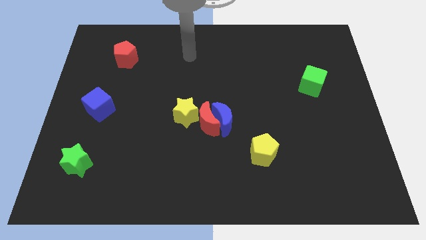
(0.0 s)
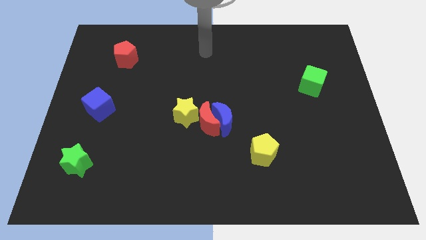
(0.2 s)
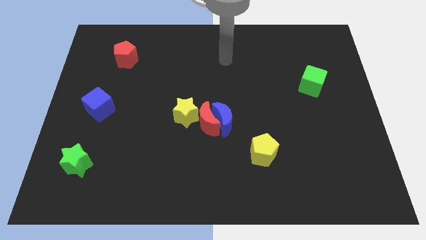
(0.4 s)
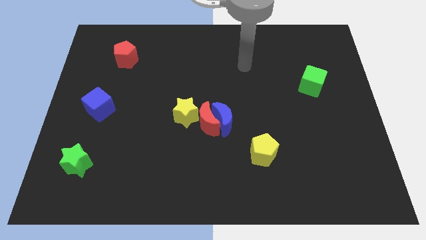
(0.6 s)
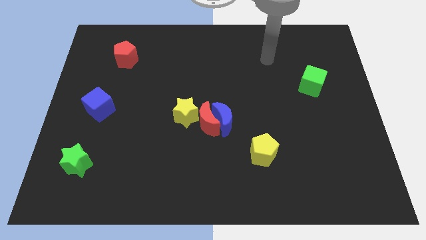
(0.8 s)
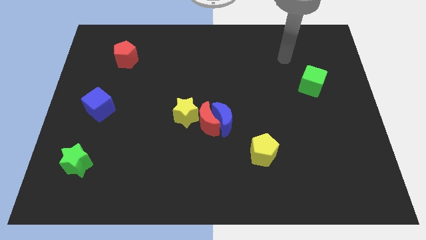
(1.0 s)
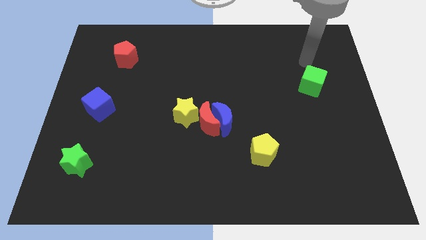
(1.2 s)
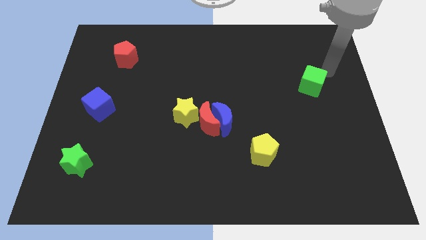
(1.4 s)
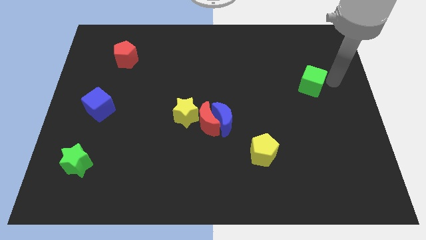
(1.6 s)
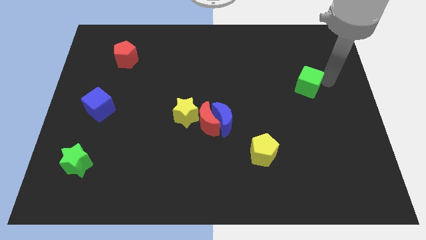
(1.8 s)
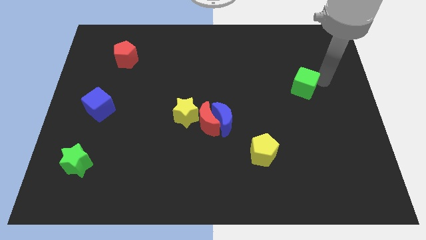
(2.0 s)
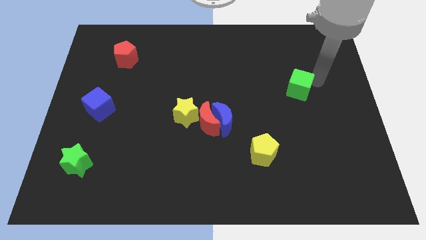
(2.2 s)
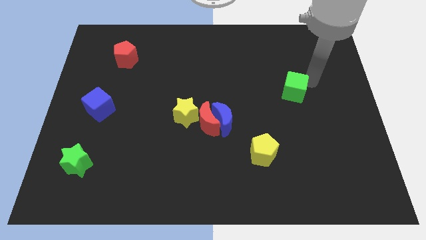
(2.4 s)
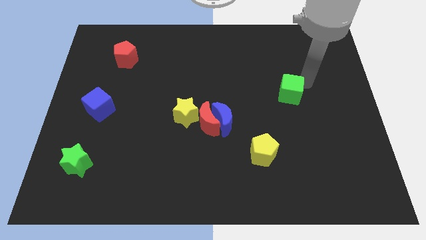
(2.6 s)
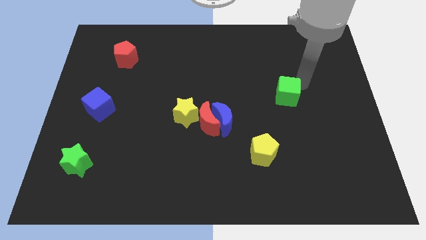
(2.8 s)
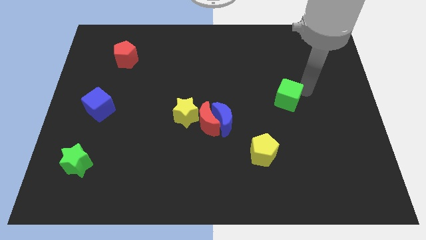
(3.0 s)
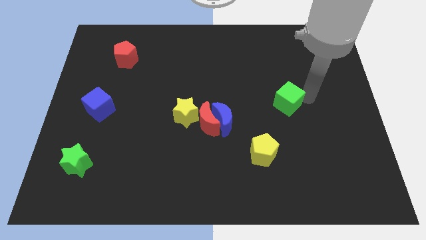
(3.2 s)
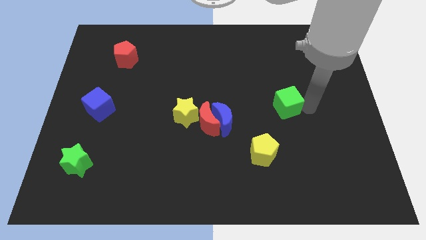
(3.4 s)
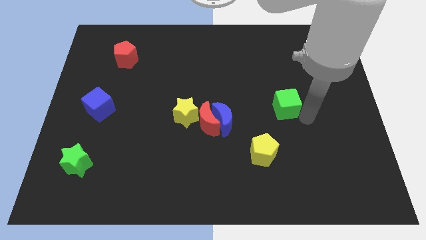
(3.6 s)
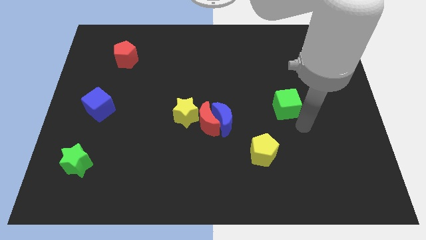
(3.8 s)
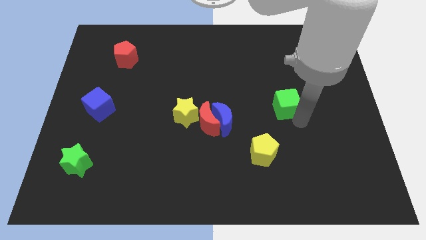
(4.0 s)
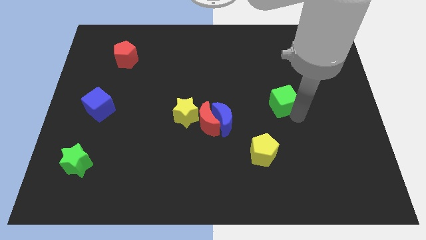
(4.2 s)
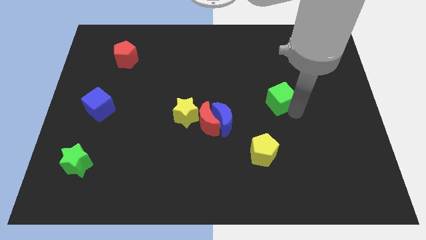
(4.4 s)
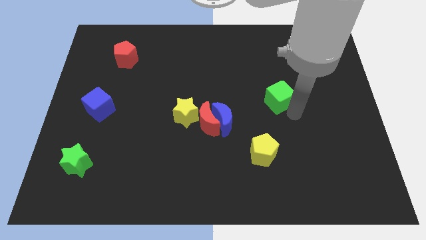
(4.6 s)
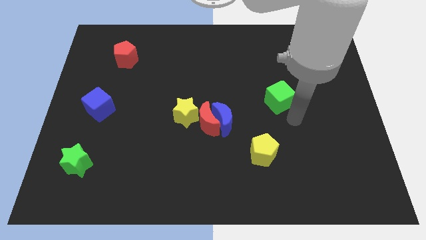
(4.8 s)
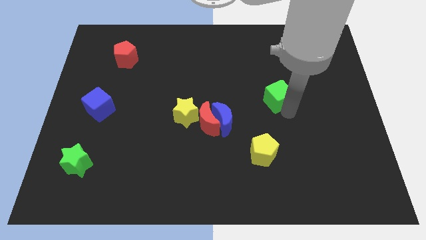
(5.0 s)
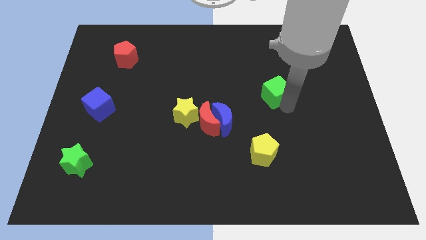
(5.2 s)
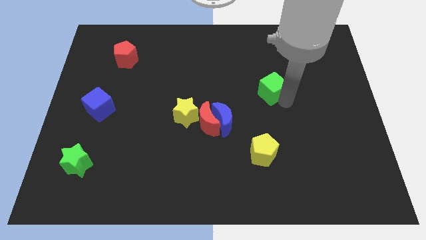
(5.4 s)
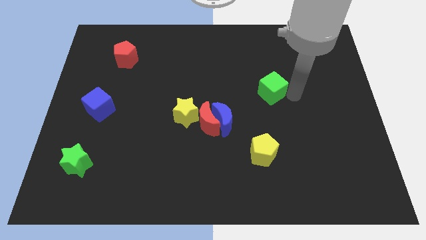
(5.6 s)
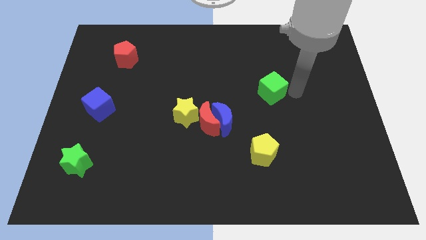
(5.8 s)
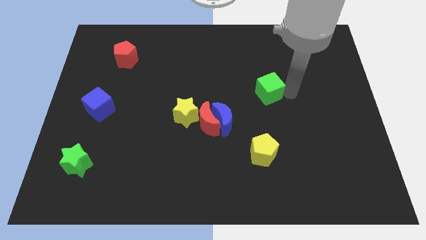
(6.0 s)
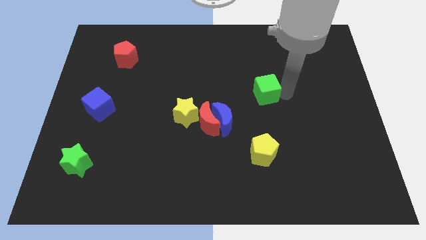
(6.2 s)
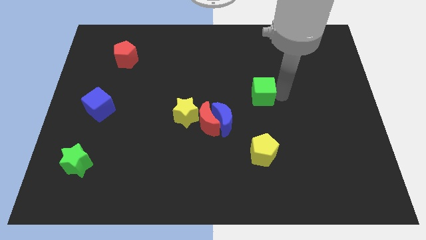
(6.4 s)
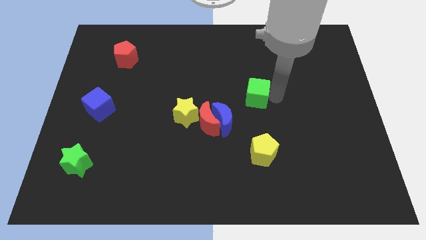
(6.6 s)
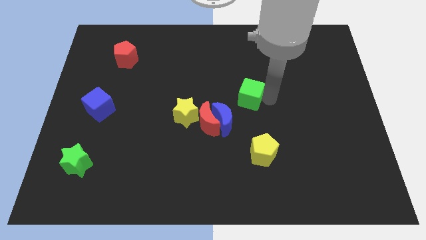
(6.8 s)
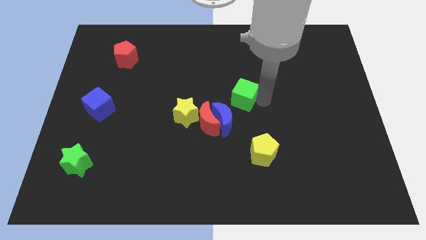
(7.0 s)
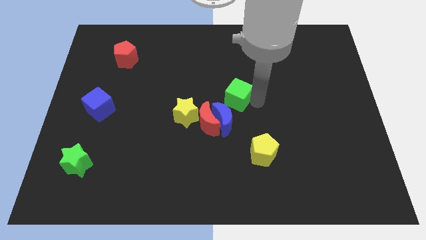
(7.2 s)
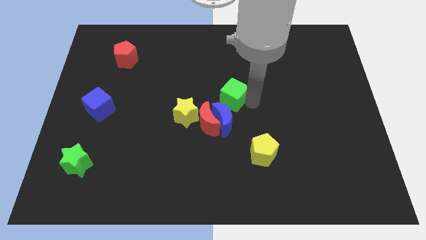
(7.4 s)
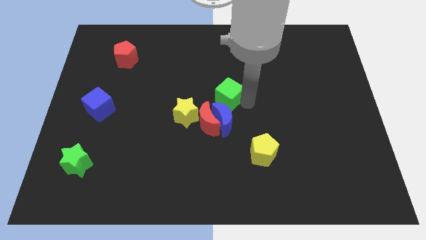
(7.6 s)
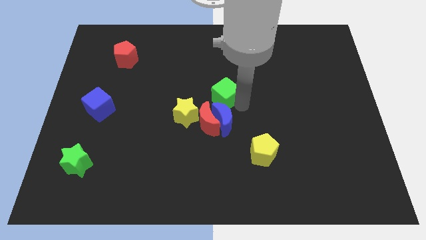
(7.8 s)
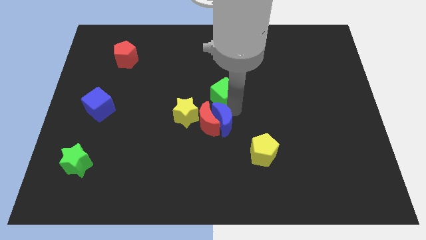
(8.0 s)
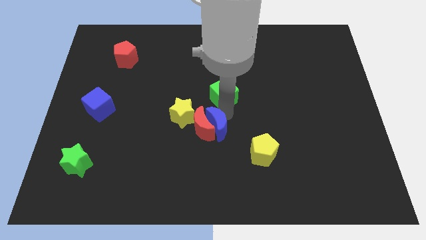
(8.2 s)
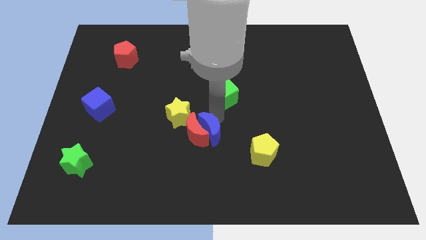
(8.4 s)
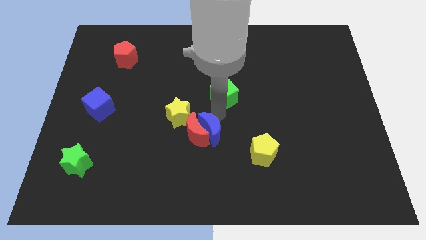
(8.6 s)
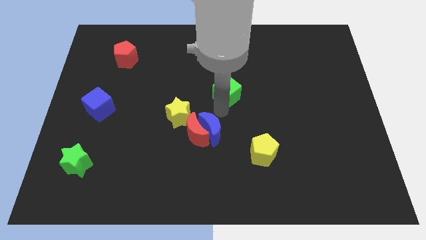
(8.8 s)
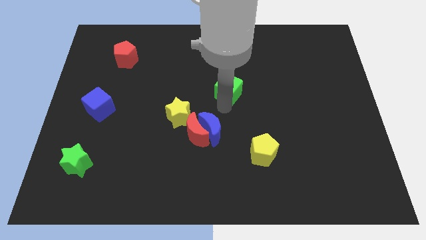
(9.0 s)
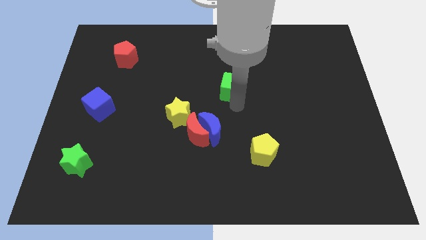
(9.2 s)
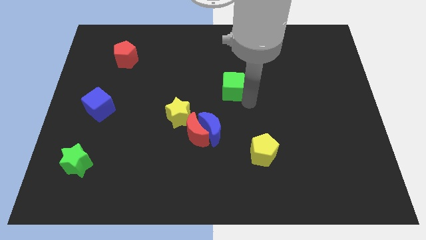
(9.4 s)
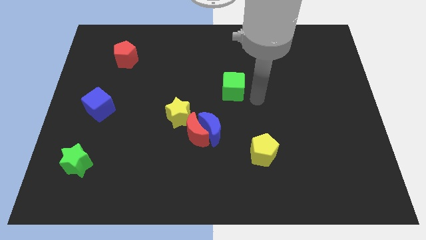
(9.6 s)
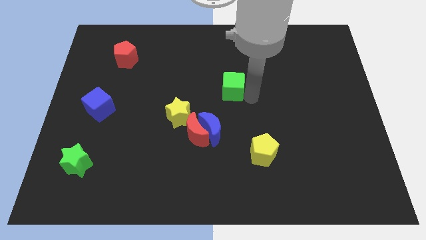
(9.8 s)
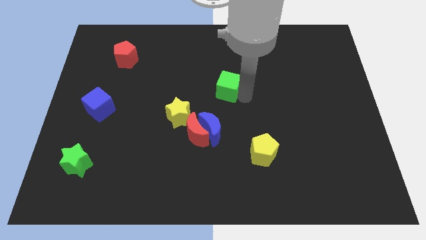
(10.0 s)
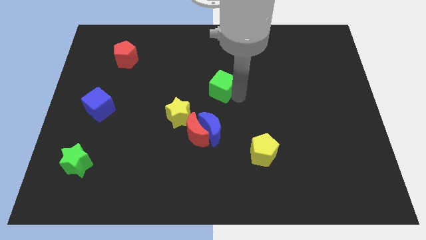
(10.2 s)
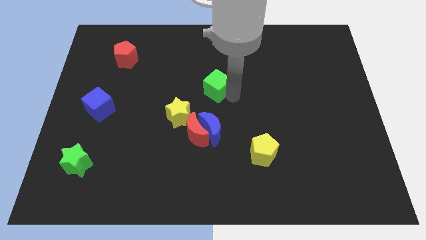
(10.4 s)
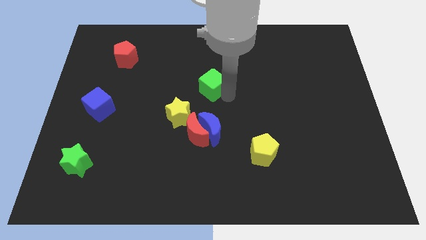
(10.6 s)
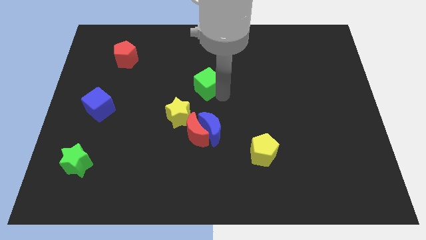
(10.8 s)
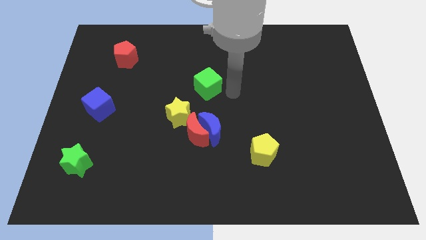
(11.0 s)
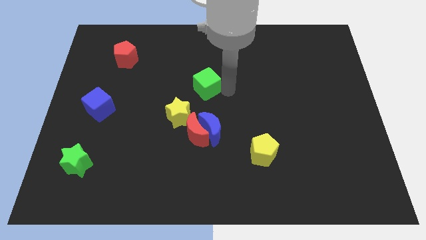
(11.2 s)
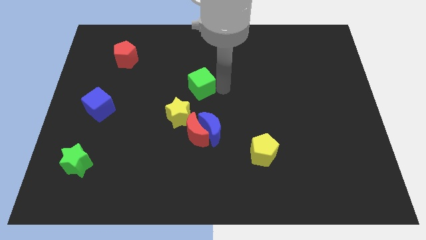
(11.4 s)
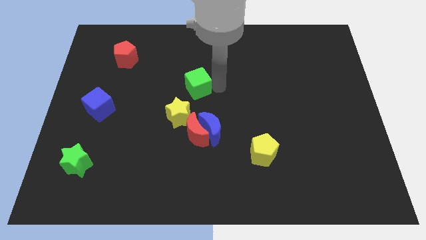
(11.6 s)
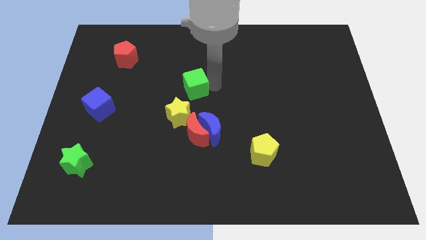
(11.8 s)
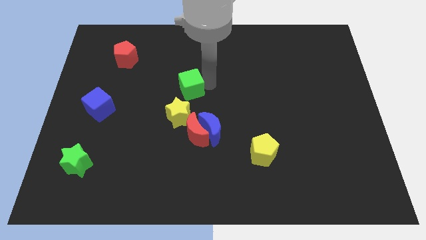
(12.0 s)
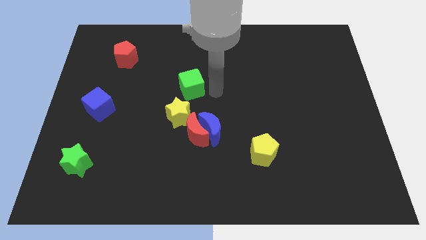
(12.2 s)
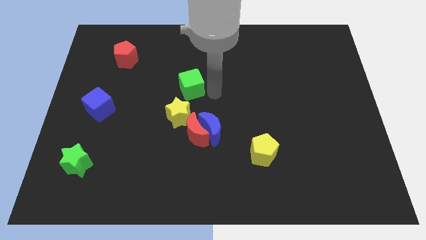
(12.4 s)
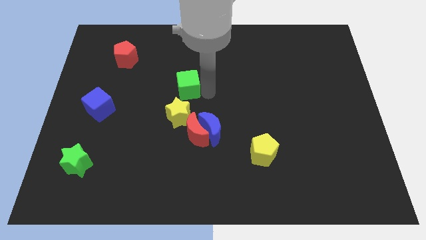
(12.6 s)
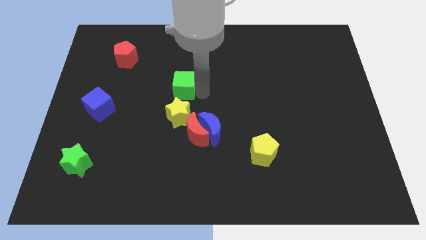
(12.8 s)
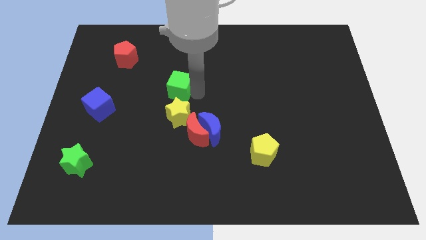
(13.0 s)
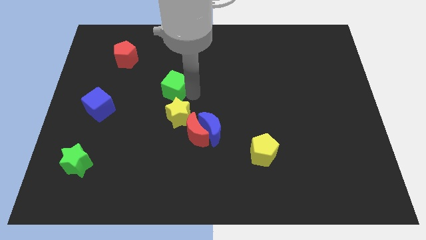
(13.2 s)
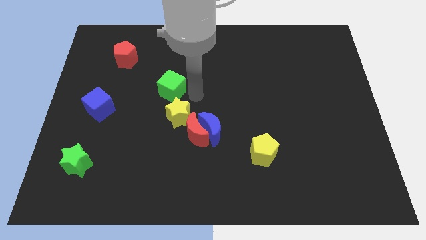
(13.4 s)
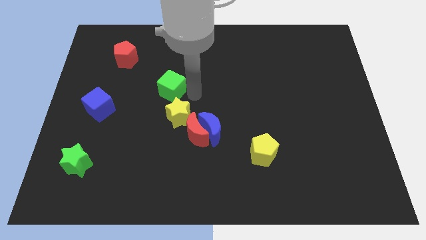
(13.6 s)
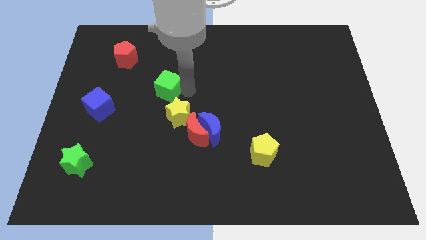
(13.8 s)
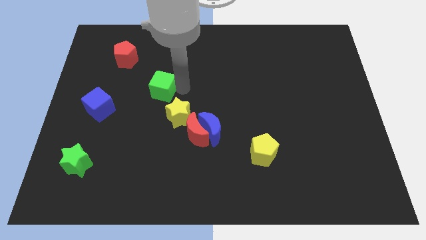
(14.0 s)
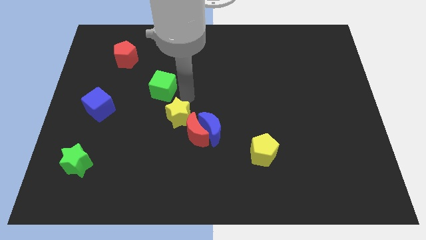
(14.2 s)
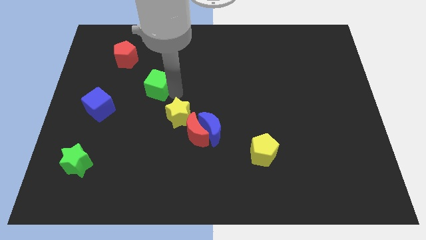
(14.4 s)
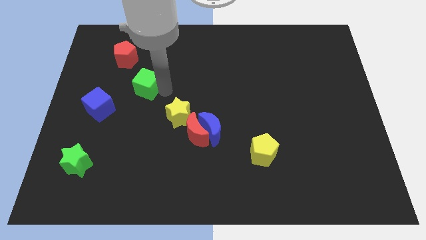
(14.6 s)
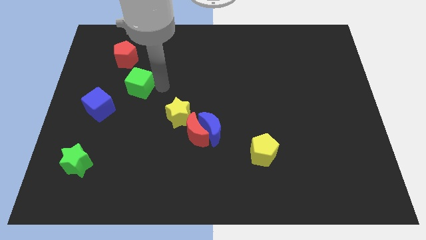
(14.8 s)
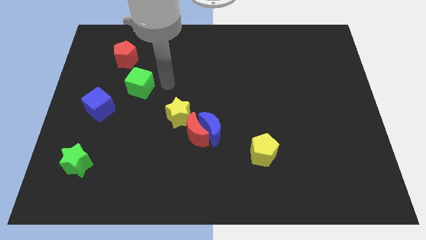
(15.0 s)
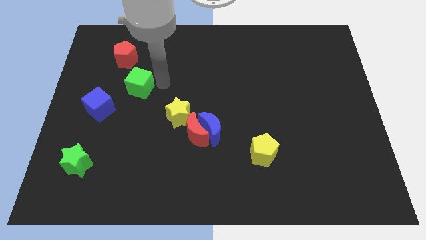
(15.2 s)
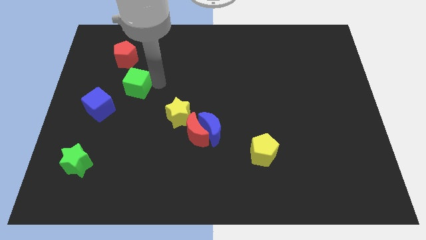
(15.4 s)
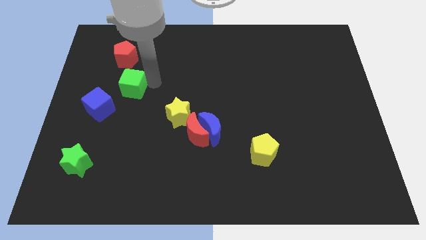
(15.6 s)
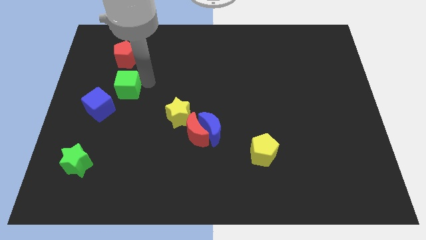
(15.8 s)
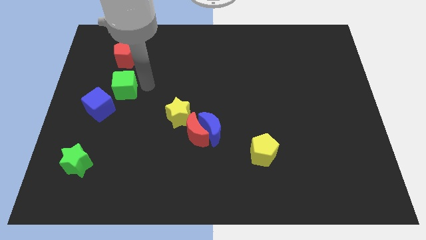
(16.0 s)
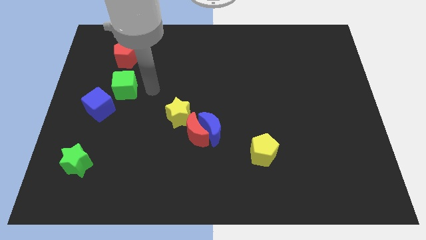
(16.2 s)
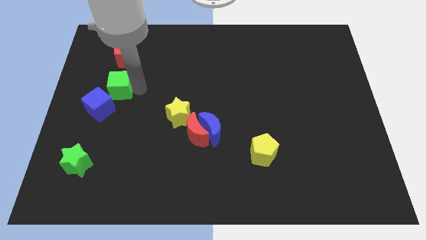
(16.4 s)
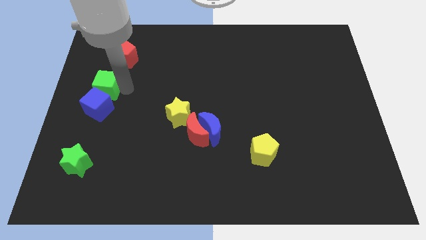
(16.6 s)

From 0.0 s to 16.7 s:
put the green cube to the center left
